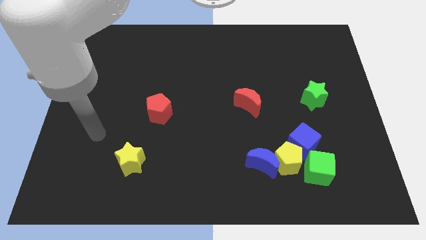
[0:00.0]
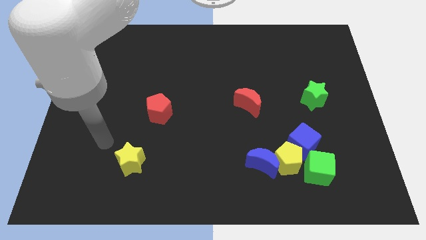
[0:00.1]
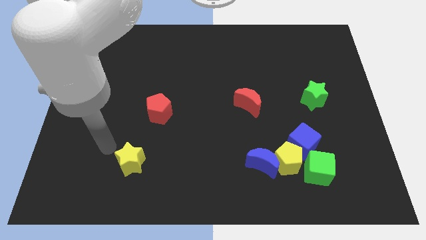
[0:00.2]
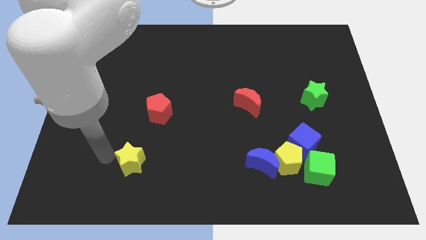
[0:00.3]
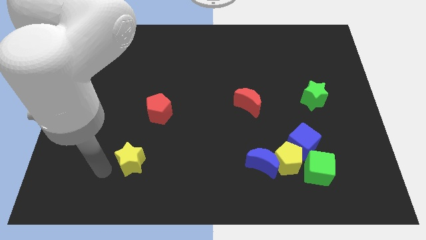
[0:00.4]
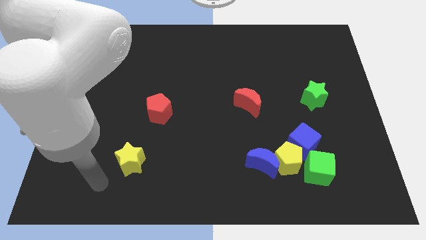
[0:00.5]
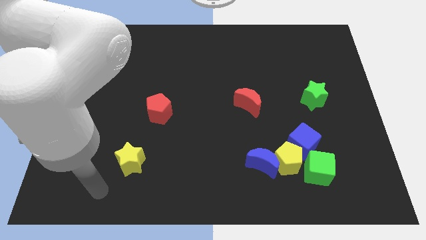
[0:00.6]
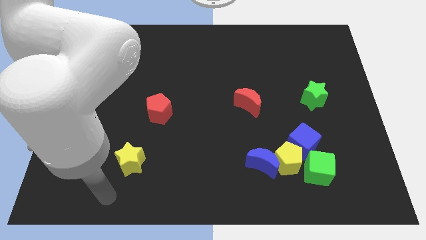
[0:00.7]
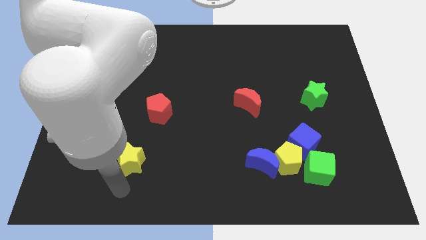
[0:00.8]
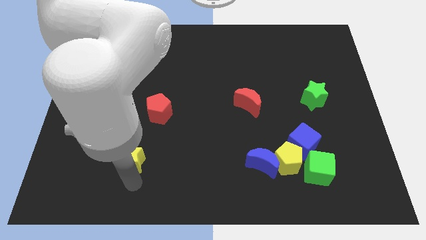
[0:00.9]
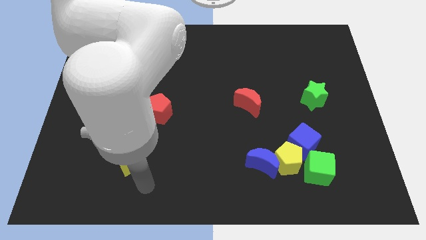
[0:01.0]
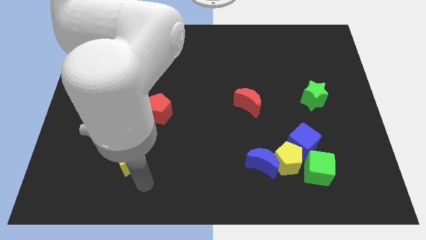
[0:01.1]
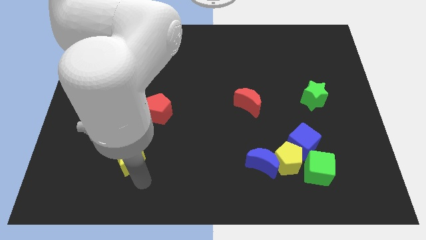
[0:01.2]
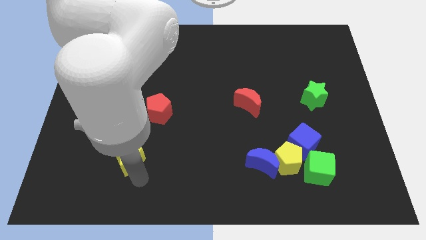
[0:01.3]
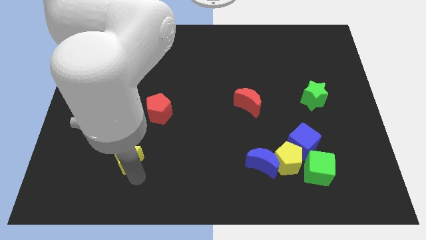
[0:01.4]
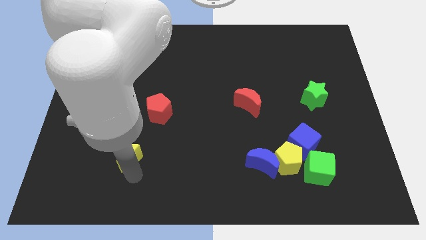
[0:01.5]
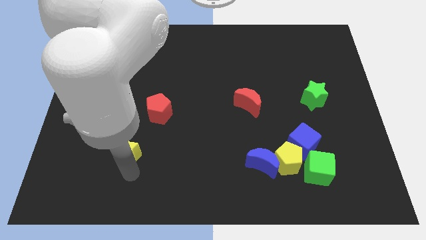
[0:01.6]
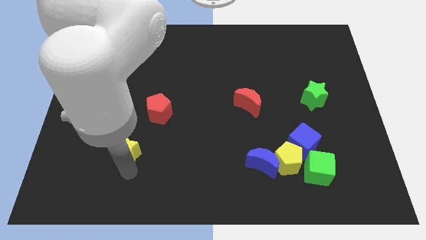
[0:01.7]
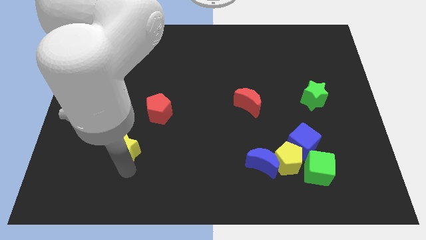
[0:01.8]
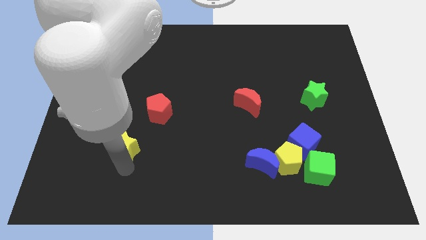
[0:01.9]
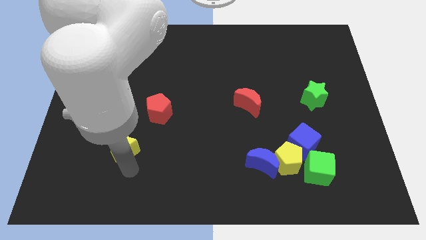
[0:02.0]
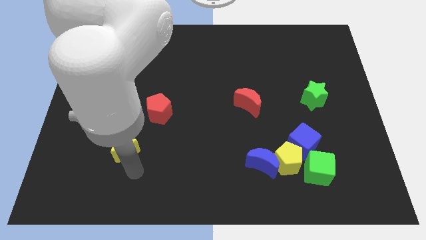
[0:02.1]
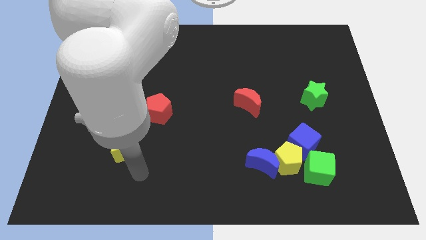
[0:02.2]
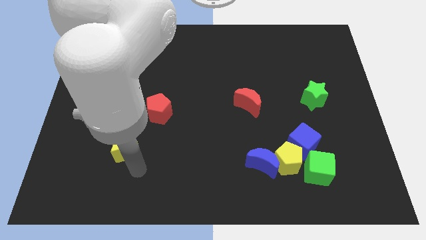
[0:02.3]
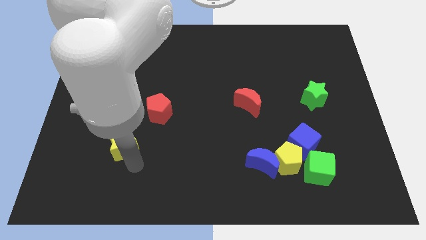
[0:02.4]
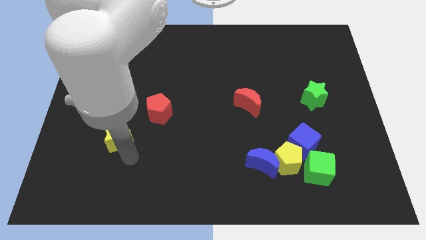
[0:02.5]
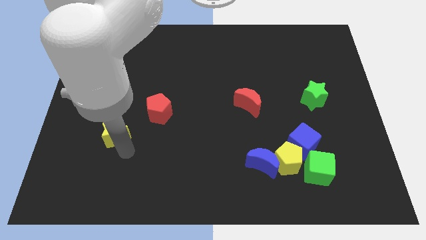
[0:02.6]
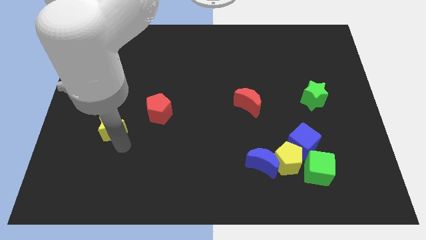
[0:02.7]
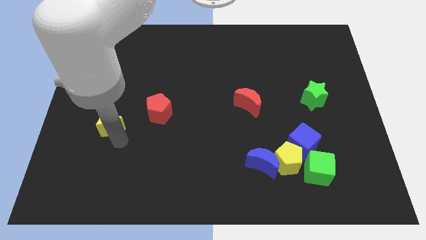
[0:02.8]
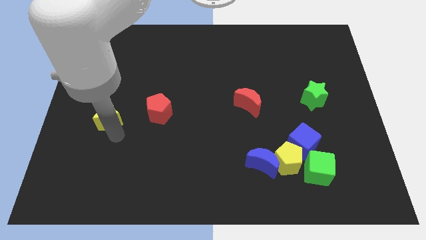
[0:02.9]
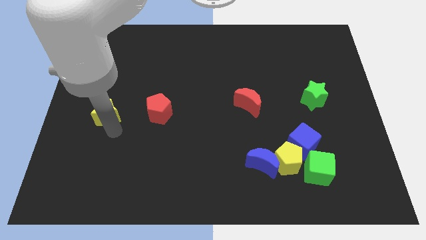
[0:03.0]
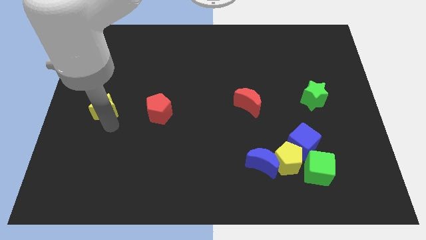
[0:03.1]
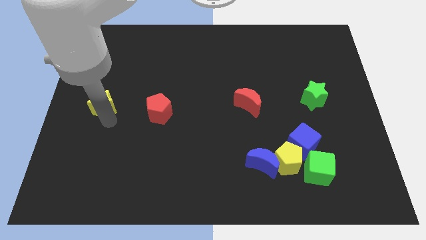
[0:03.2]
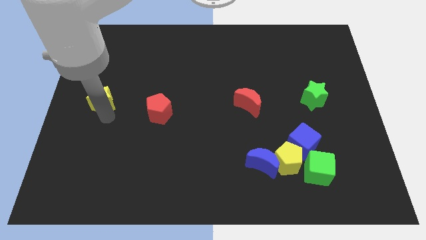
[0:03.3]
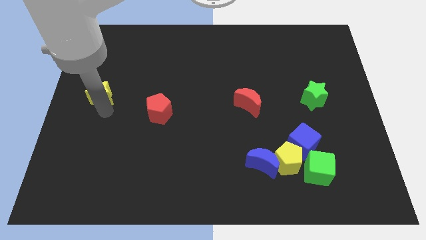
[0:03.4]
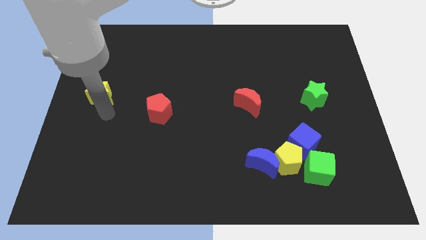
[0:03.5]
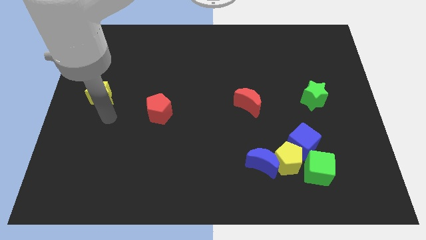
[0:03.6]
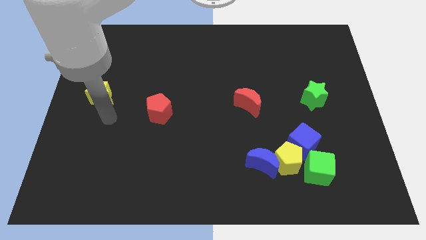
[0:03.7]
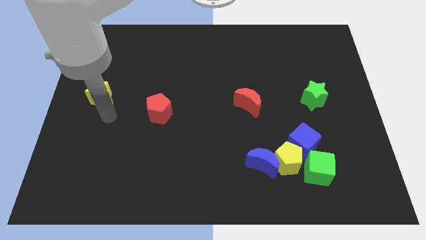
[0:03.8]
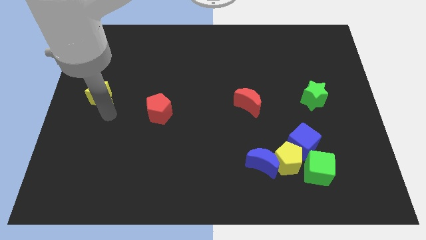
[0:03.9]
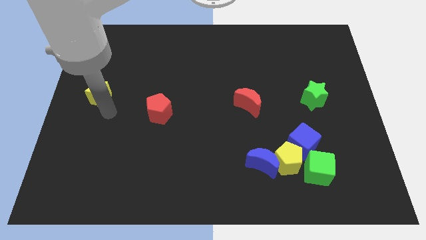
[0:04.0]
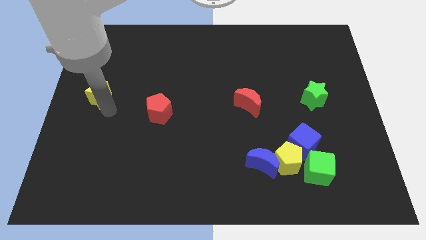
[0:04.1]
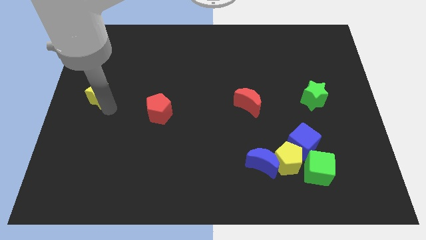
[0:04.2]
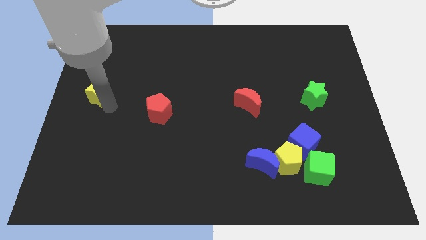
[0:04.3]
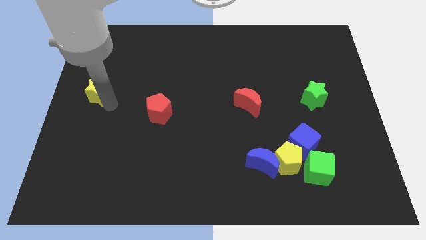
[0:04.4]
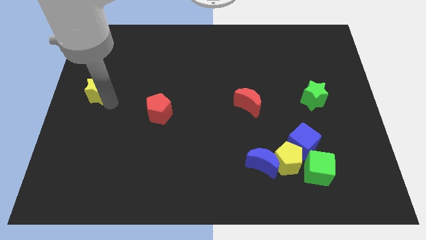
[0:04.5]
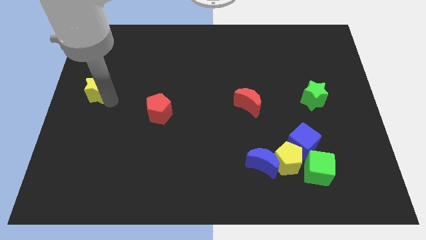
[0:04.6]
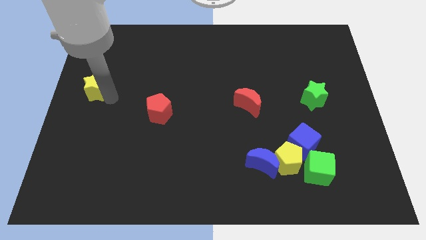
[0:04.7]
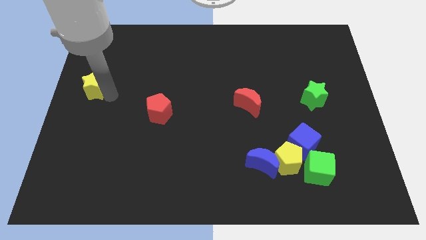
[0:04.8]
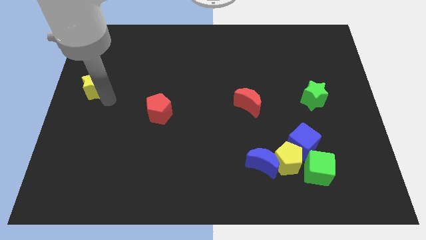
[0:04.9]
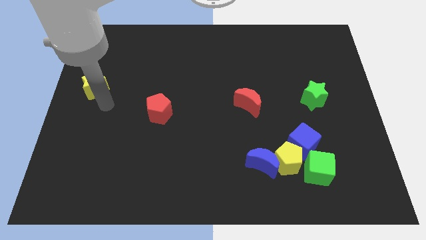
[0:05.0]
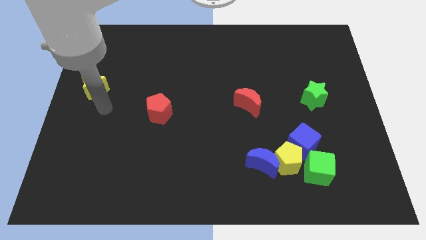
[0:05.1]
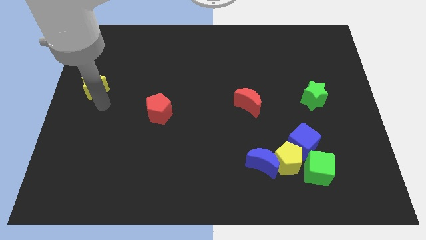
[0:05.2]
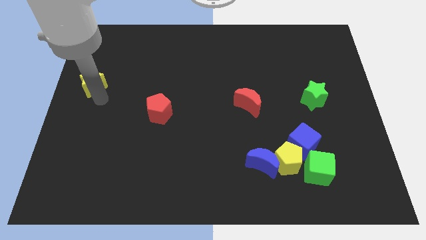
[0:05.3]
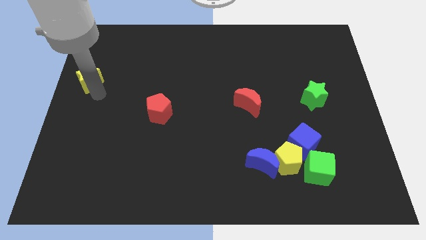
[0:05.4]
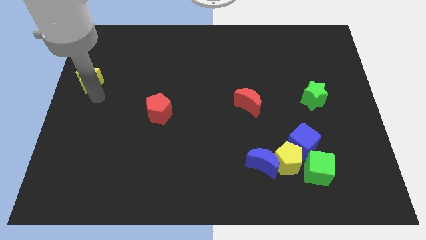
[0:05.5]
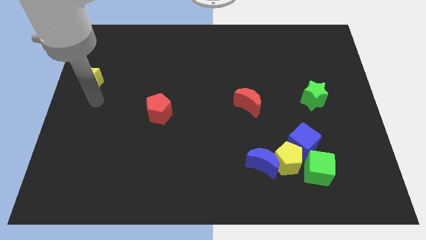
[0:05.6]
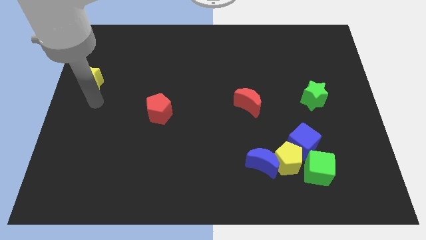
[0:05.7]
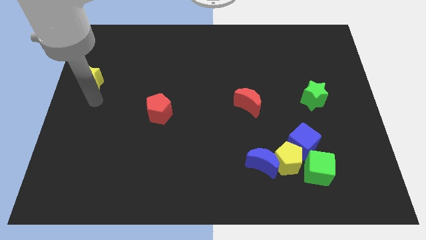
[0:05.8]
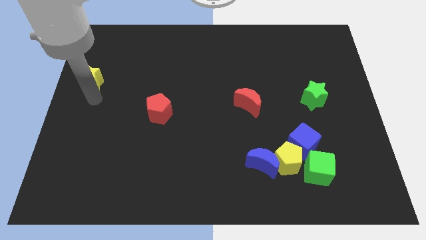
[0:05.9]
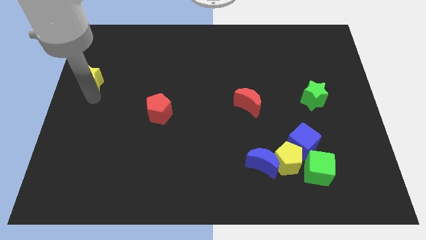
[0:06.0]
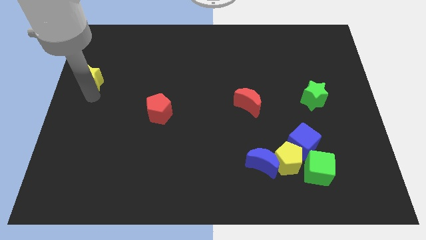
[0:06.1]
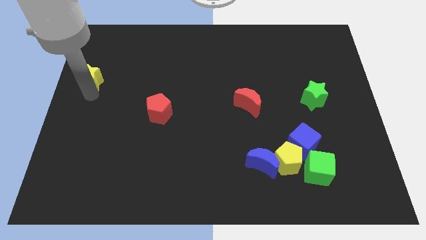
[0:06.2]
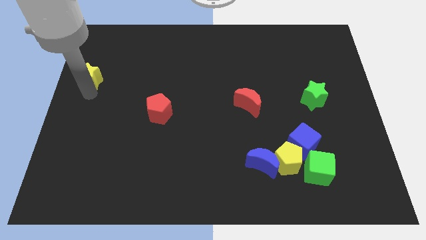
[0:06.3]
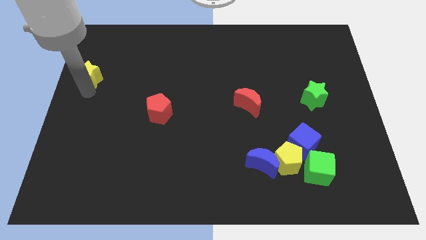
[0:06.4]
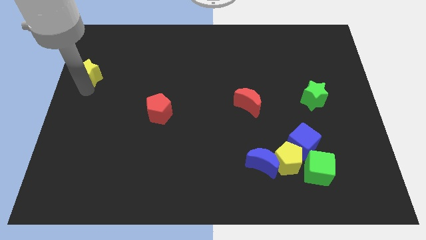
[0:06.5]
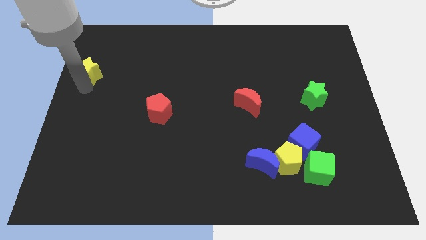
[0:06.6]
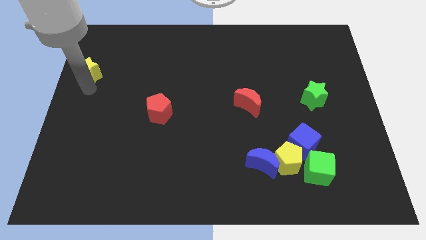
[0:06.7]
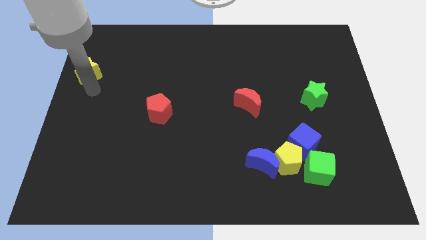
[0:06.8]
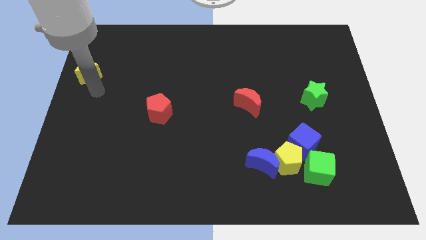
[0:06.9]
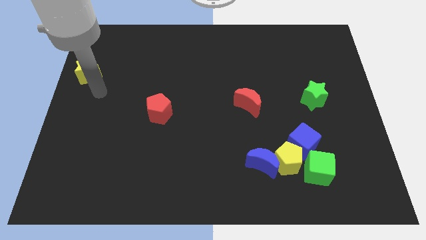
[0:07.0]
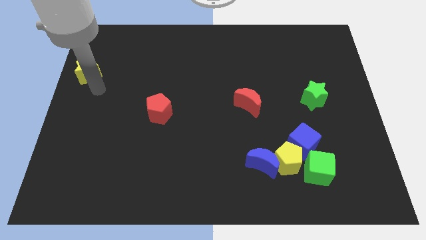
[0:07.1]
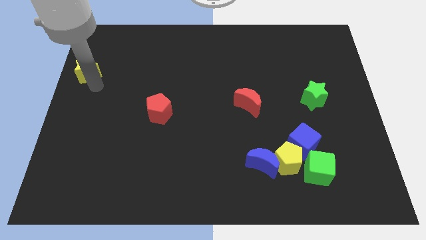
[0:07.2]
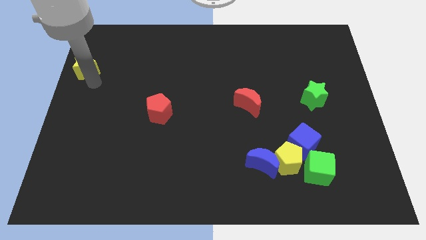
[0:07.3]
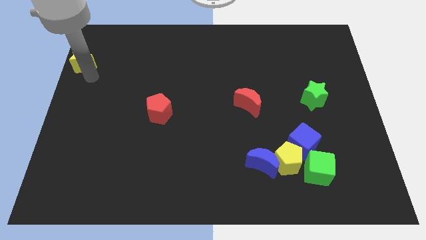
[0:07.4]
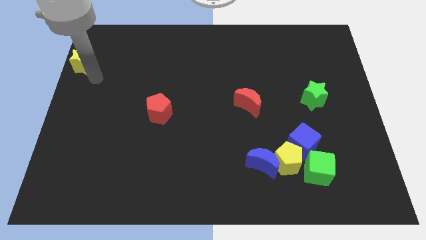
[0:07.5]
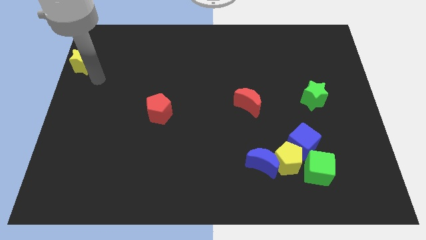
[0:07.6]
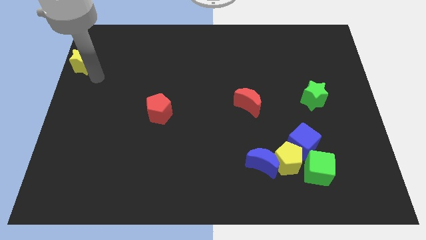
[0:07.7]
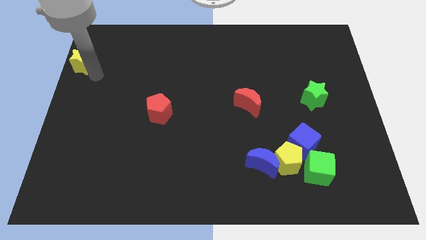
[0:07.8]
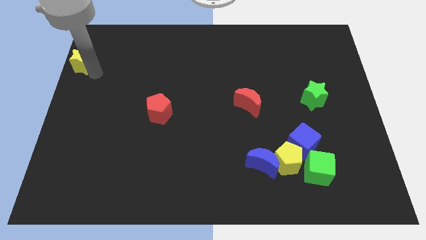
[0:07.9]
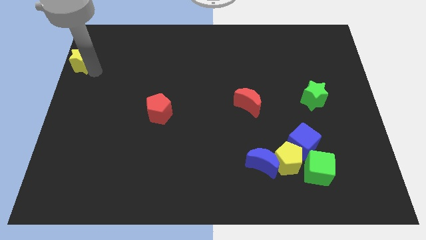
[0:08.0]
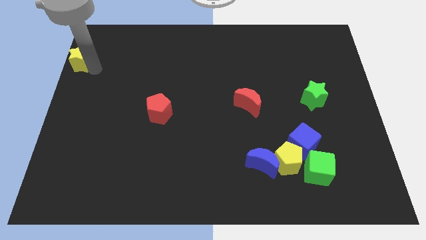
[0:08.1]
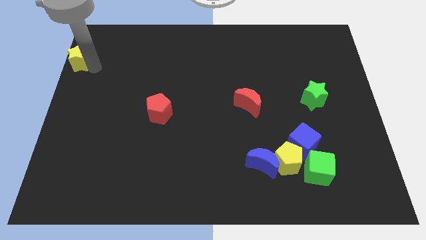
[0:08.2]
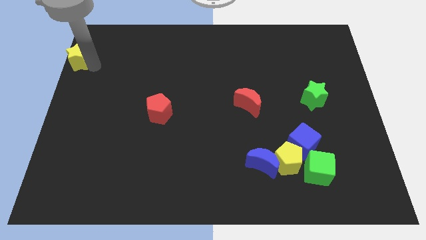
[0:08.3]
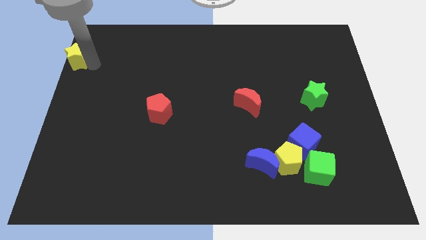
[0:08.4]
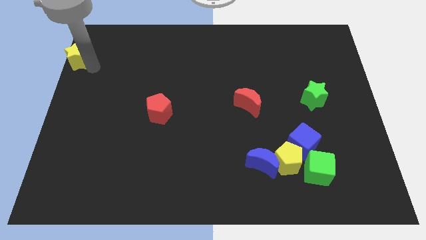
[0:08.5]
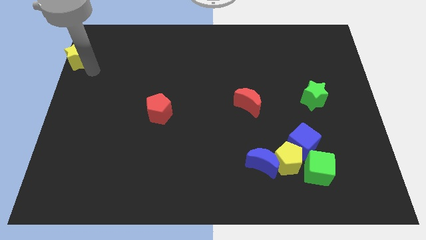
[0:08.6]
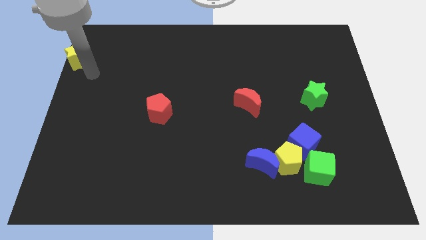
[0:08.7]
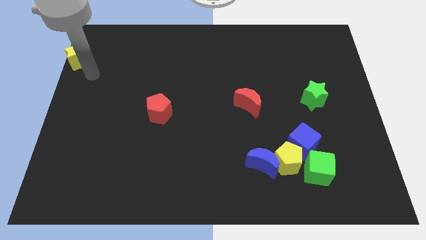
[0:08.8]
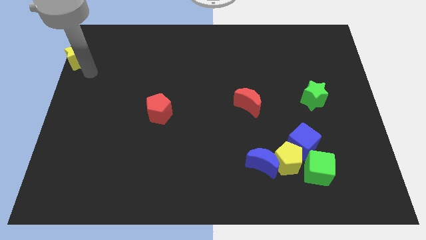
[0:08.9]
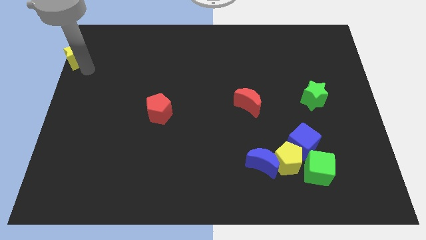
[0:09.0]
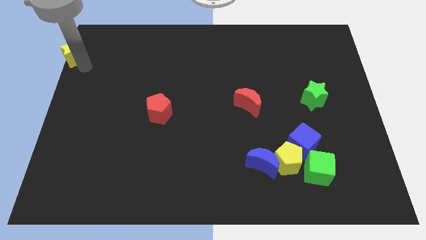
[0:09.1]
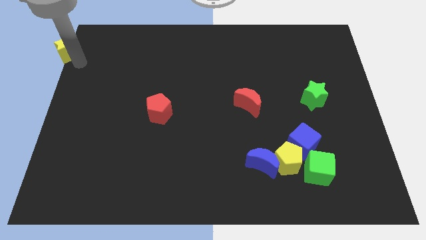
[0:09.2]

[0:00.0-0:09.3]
push the yellow star to the top left
